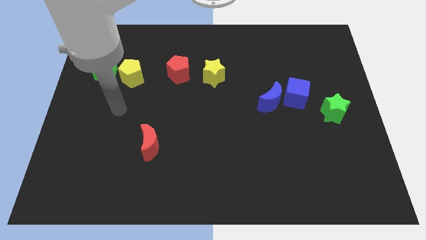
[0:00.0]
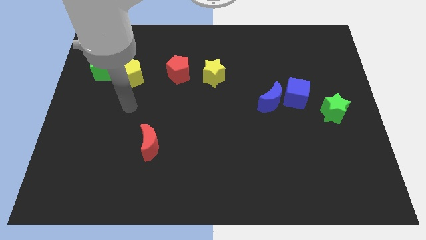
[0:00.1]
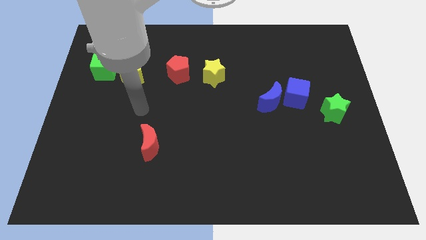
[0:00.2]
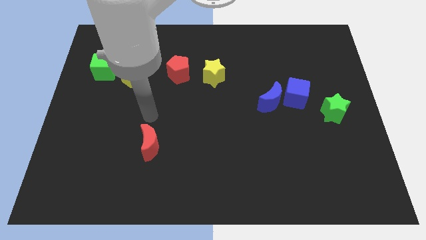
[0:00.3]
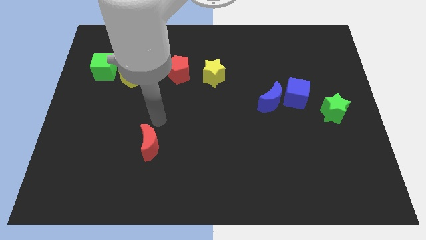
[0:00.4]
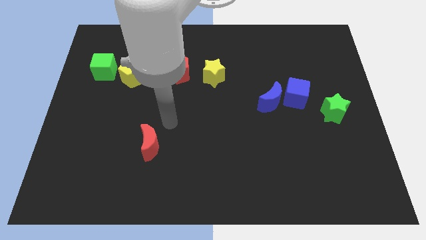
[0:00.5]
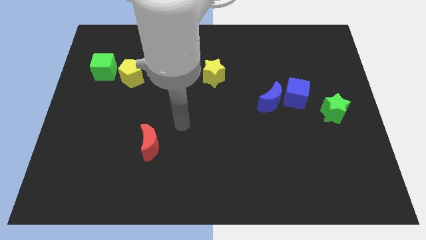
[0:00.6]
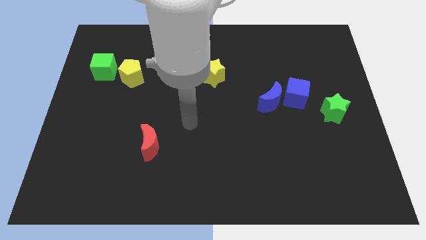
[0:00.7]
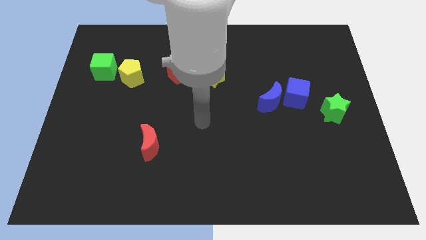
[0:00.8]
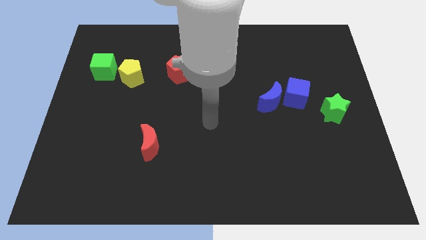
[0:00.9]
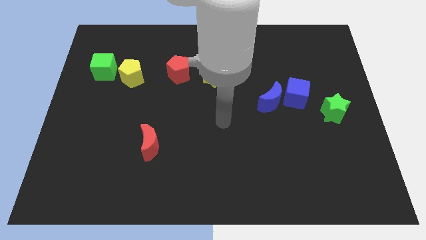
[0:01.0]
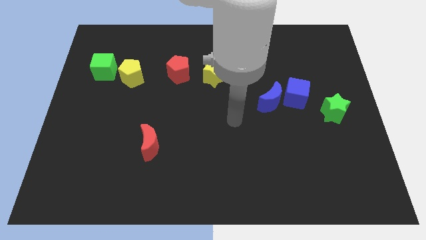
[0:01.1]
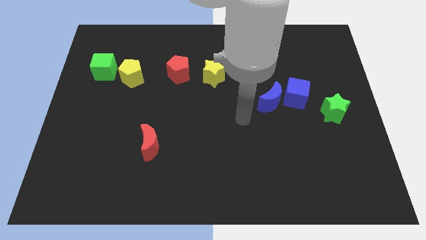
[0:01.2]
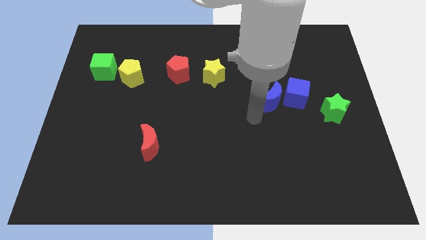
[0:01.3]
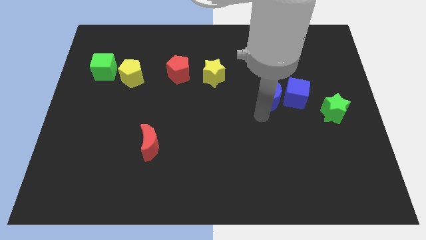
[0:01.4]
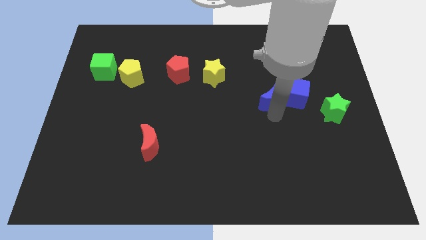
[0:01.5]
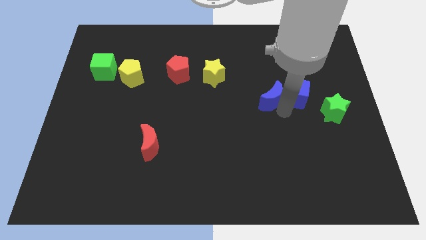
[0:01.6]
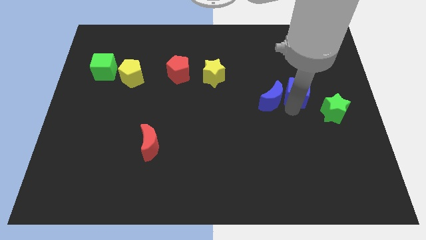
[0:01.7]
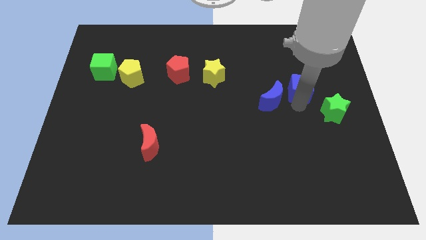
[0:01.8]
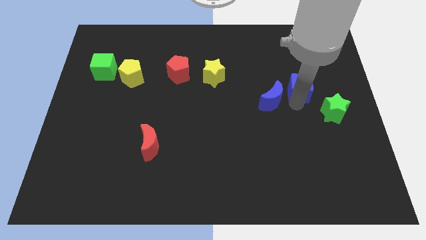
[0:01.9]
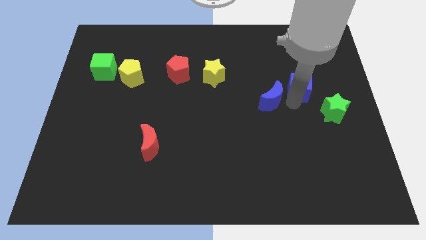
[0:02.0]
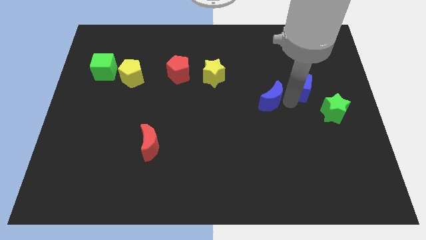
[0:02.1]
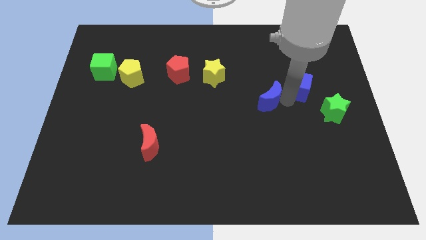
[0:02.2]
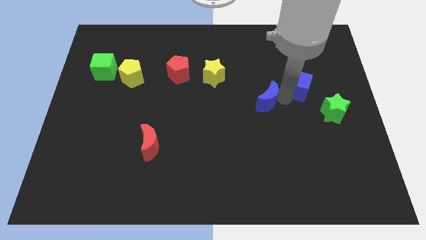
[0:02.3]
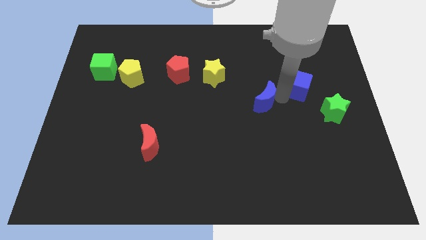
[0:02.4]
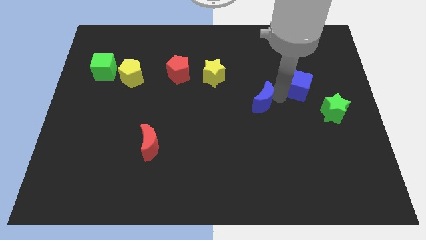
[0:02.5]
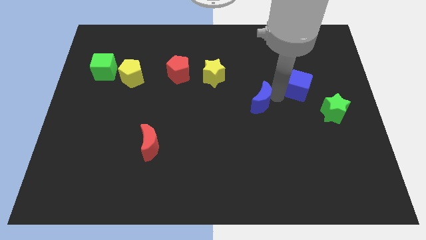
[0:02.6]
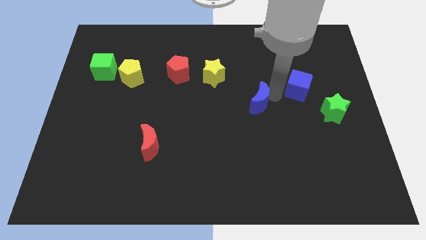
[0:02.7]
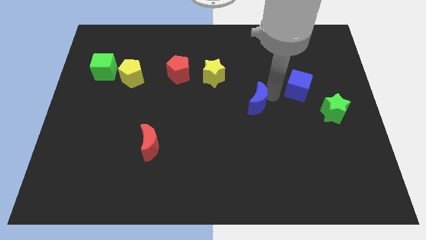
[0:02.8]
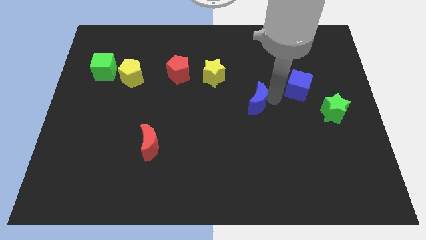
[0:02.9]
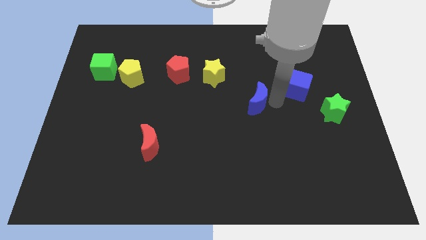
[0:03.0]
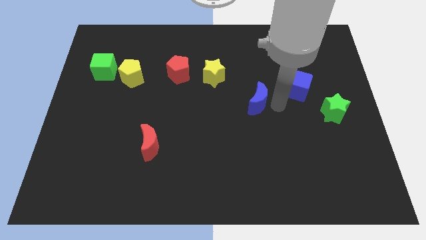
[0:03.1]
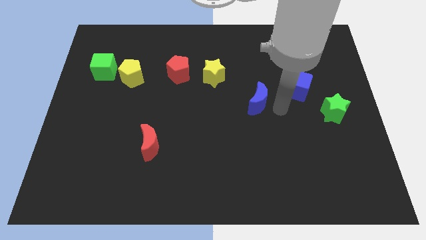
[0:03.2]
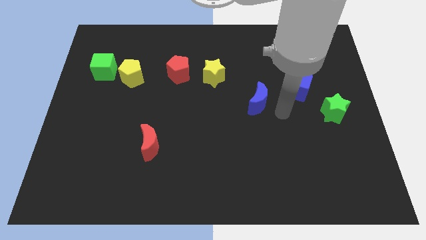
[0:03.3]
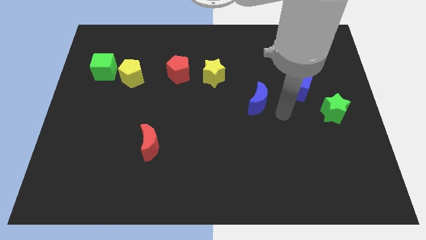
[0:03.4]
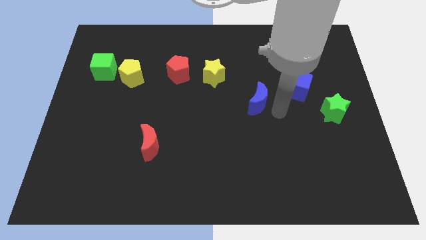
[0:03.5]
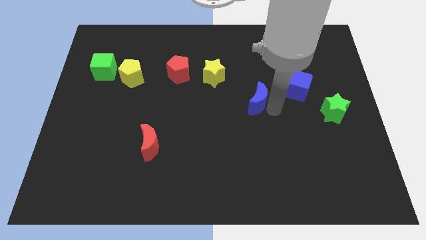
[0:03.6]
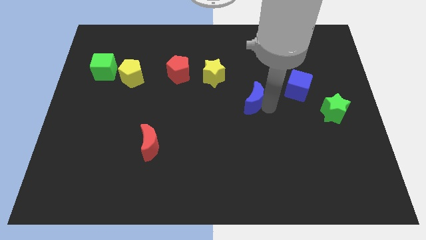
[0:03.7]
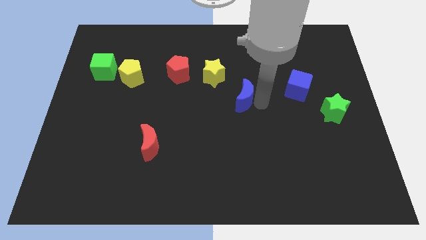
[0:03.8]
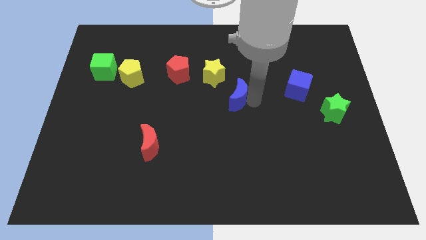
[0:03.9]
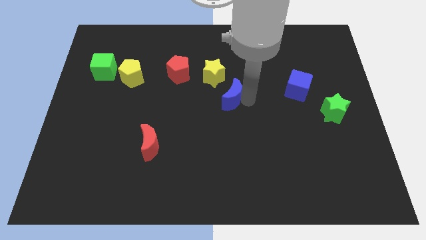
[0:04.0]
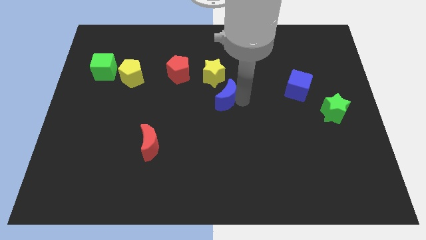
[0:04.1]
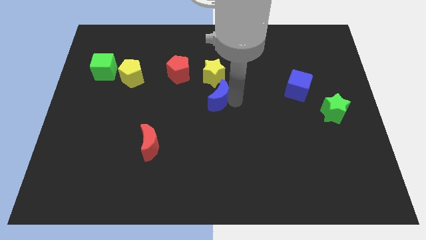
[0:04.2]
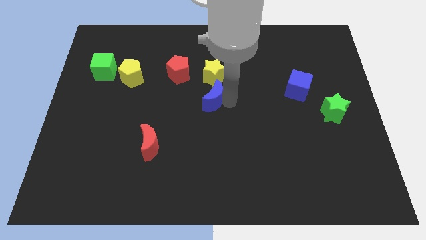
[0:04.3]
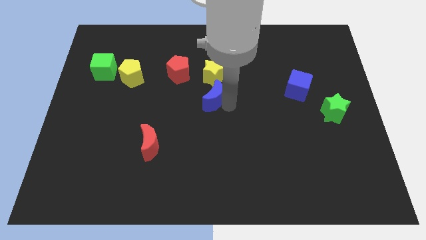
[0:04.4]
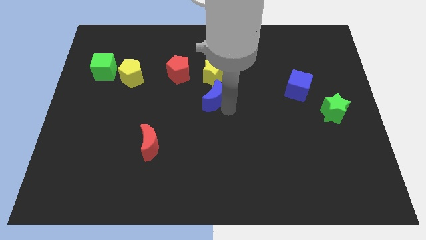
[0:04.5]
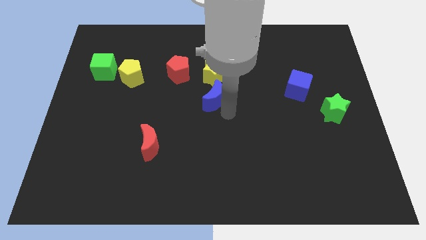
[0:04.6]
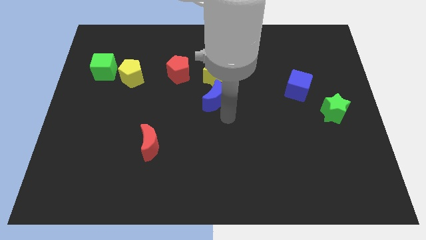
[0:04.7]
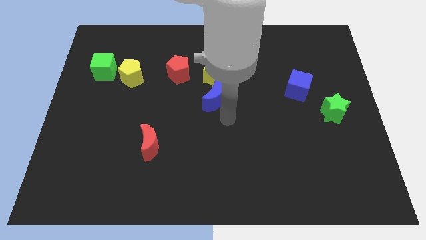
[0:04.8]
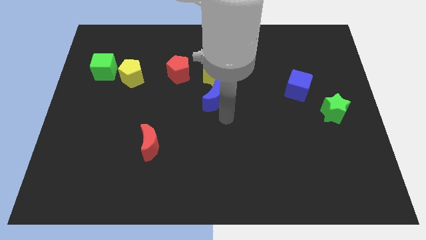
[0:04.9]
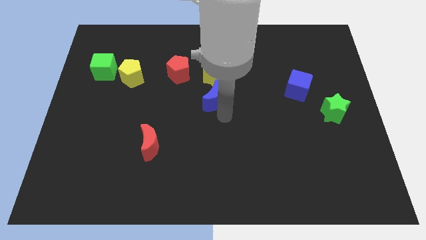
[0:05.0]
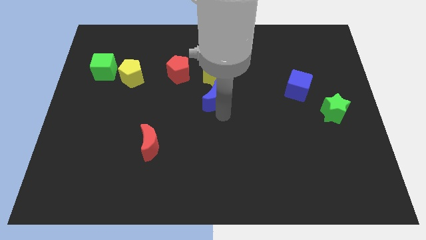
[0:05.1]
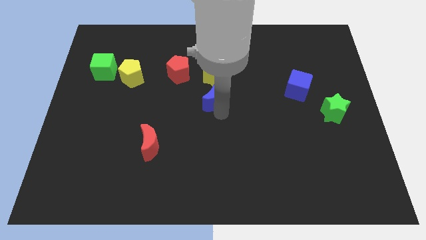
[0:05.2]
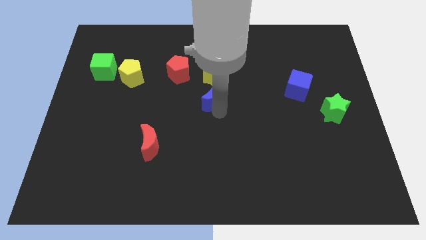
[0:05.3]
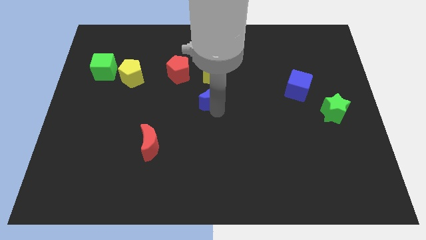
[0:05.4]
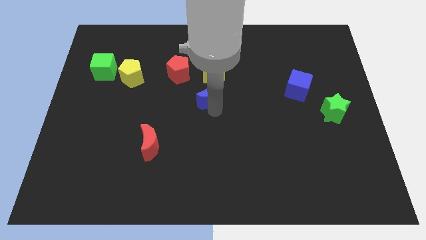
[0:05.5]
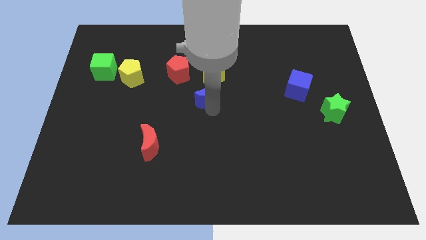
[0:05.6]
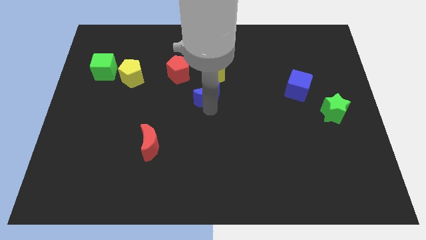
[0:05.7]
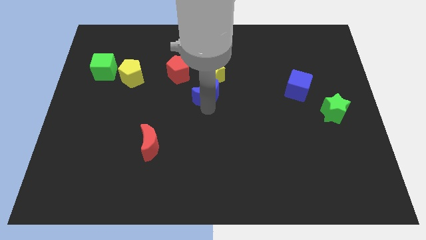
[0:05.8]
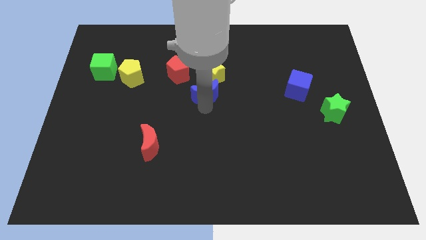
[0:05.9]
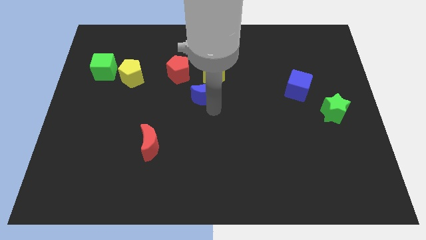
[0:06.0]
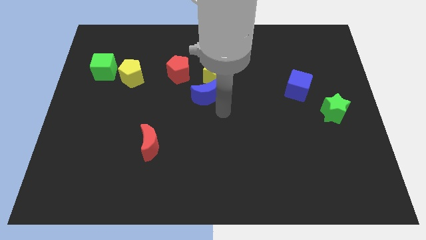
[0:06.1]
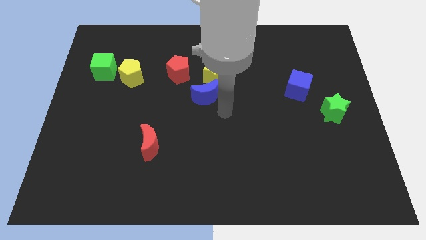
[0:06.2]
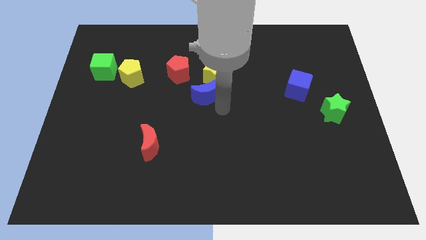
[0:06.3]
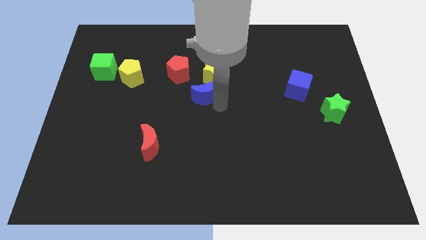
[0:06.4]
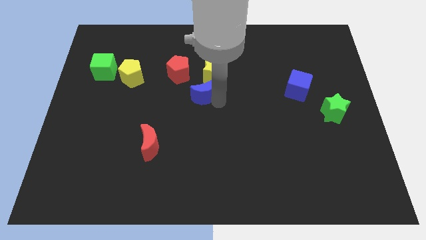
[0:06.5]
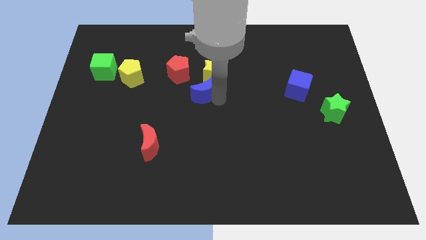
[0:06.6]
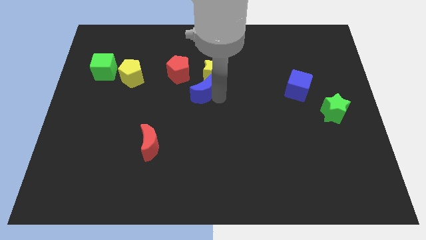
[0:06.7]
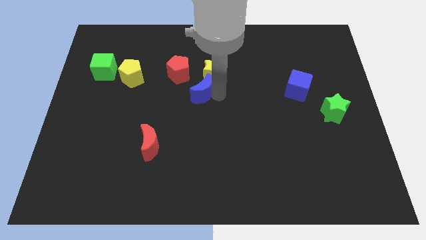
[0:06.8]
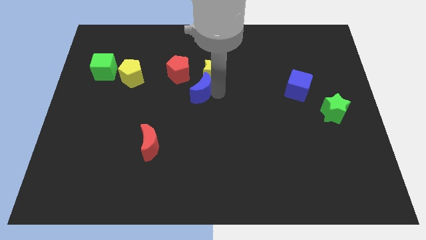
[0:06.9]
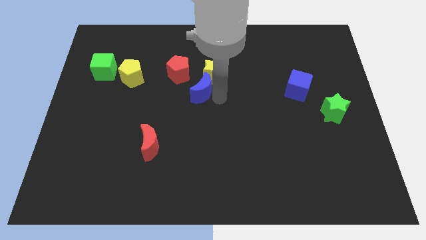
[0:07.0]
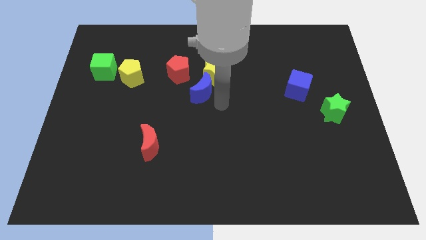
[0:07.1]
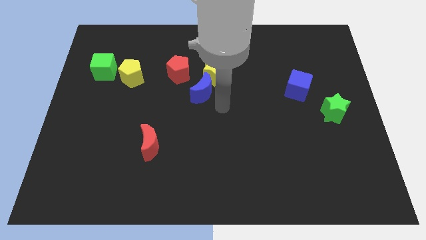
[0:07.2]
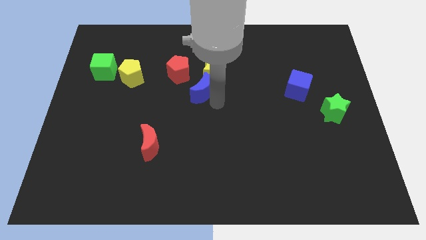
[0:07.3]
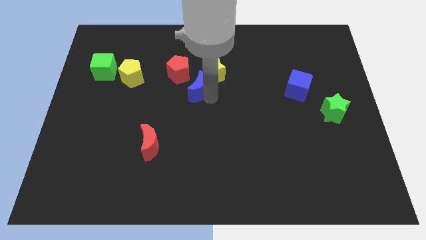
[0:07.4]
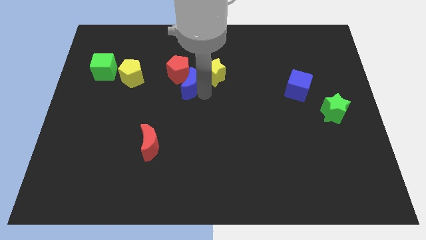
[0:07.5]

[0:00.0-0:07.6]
slide the blue moon next to the red pentagon
